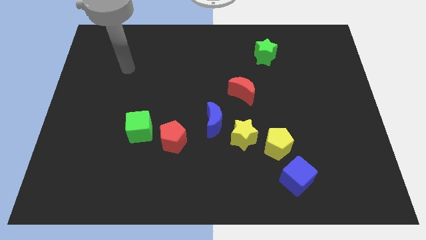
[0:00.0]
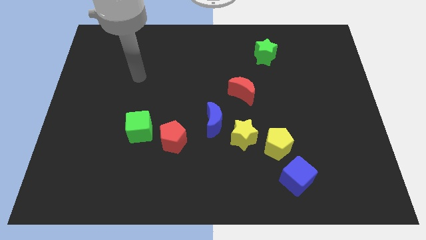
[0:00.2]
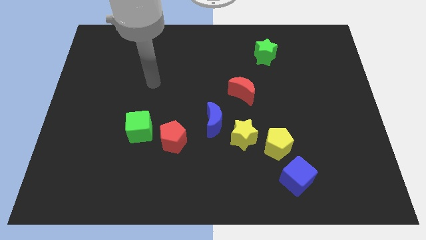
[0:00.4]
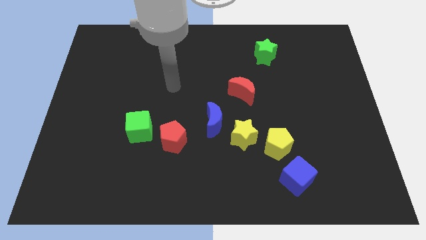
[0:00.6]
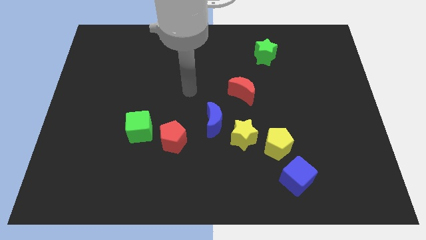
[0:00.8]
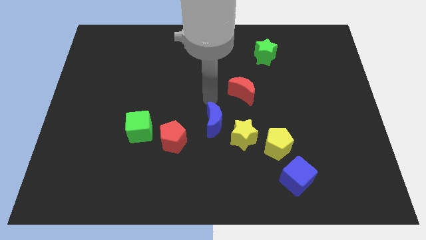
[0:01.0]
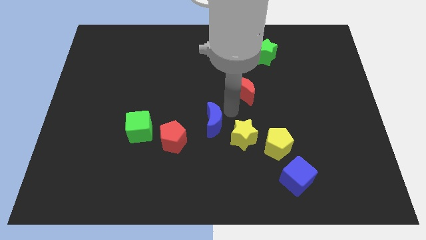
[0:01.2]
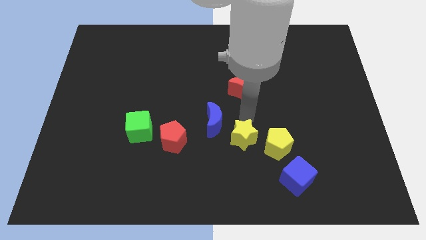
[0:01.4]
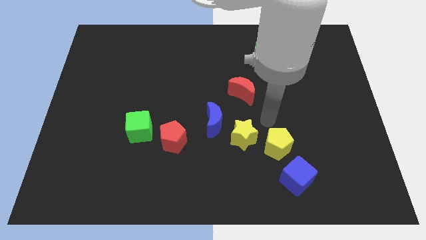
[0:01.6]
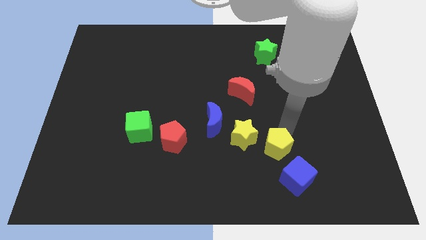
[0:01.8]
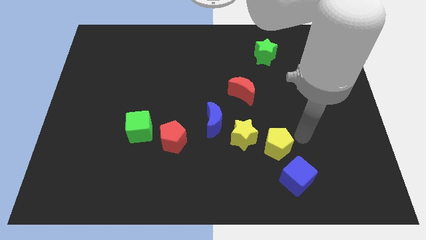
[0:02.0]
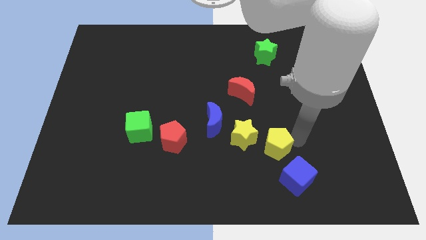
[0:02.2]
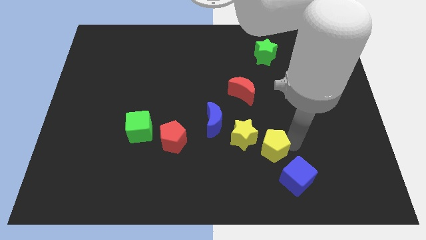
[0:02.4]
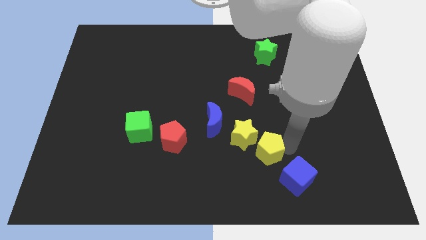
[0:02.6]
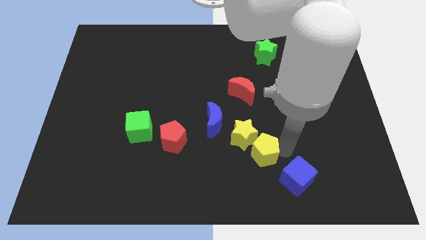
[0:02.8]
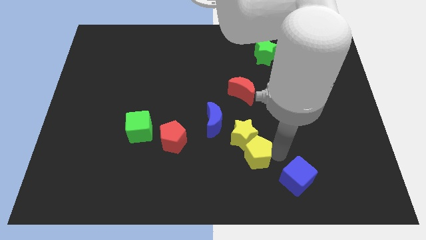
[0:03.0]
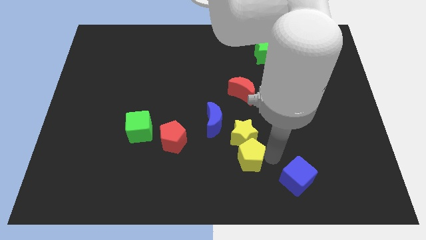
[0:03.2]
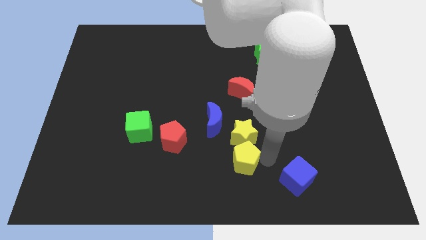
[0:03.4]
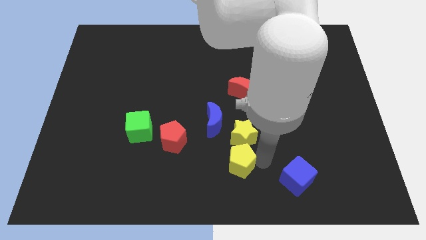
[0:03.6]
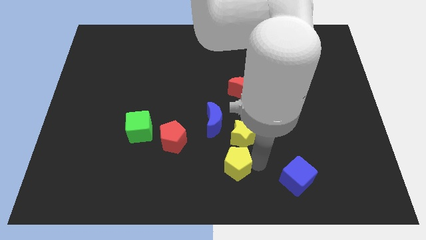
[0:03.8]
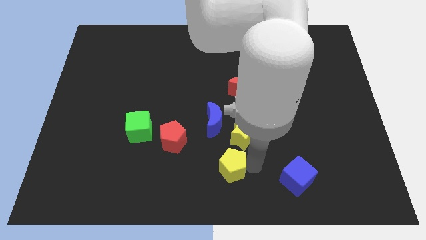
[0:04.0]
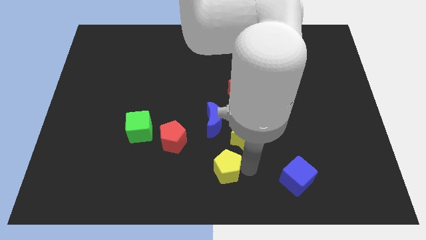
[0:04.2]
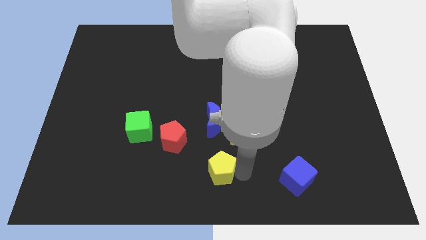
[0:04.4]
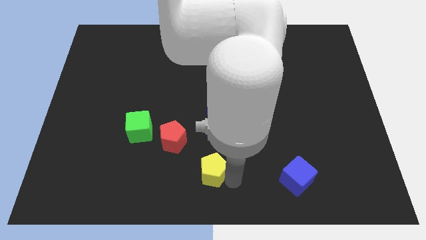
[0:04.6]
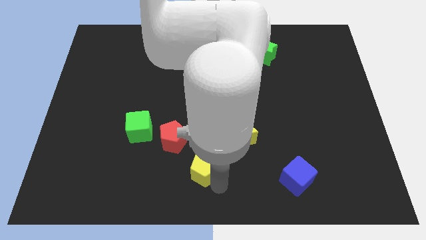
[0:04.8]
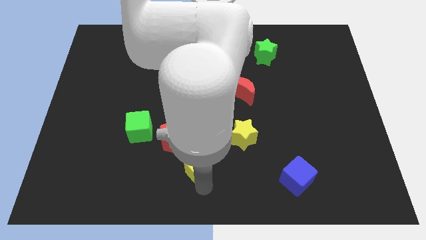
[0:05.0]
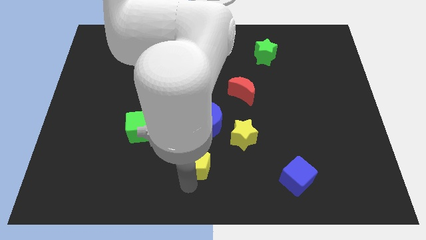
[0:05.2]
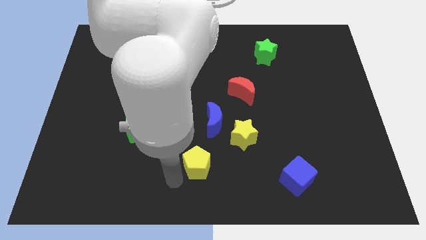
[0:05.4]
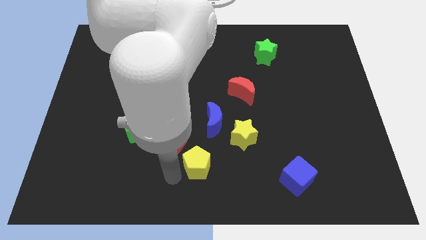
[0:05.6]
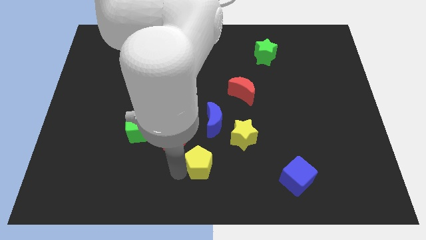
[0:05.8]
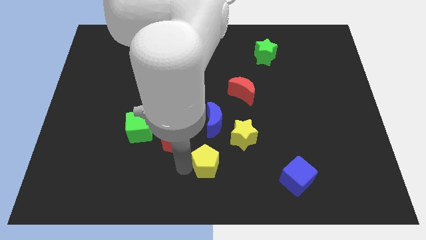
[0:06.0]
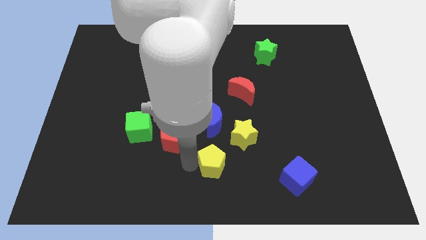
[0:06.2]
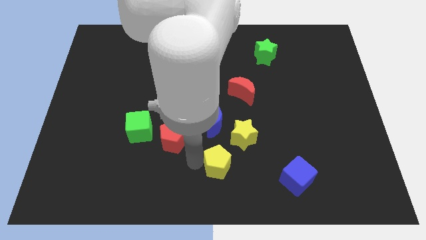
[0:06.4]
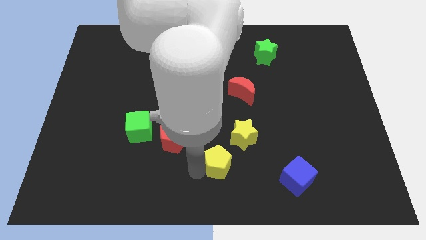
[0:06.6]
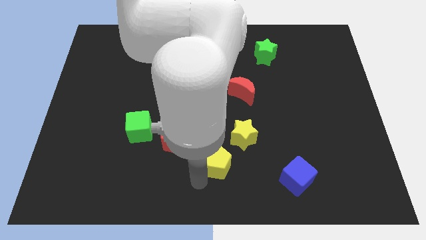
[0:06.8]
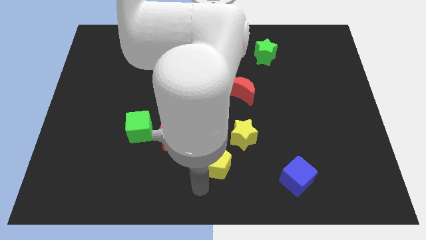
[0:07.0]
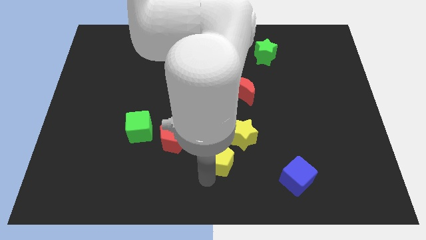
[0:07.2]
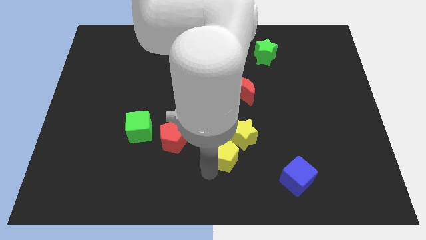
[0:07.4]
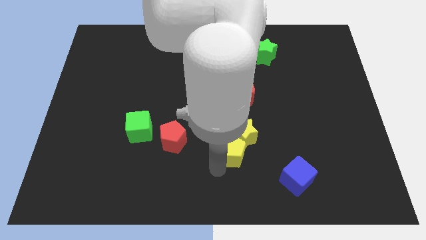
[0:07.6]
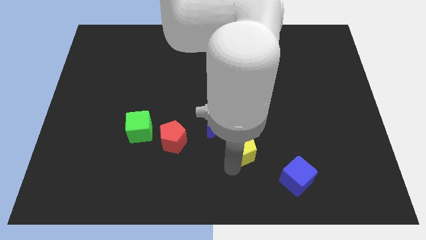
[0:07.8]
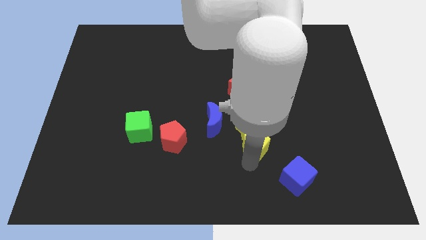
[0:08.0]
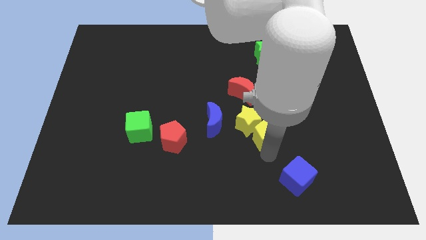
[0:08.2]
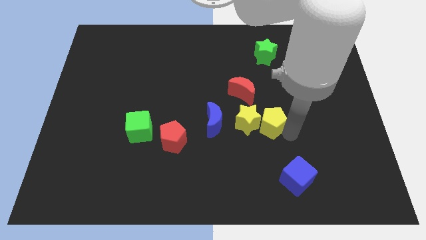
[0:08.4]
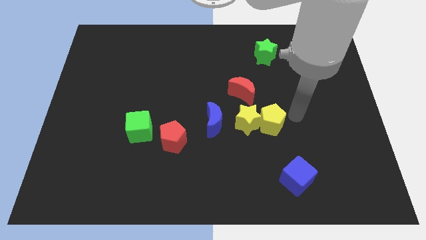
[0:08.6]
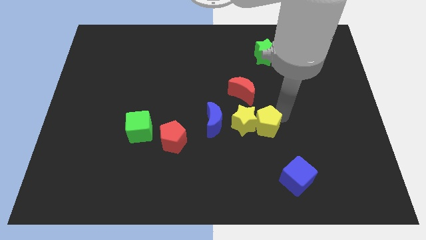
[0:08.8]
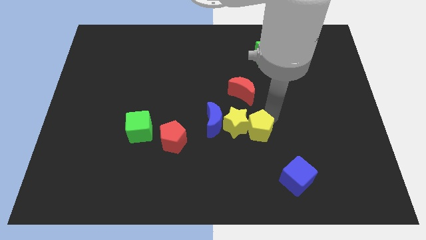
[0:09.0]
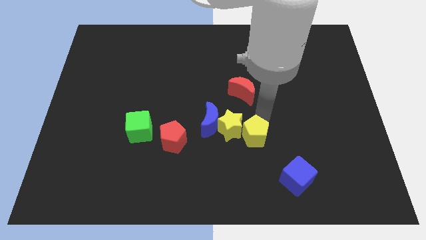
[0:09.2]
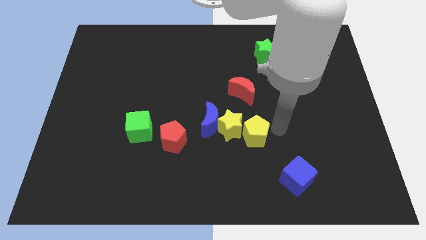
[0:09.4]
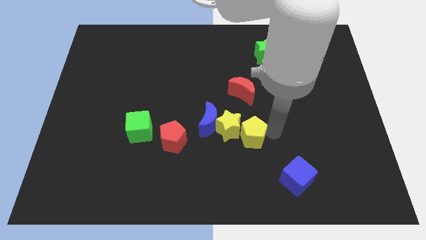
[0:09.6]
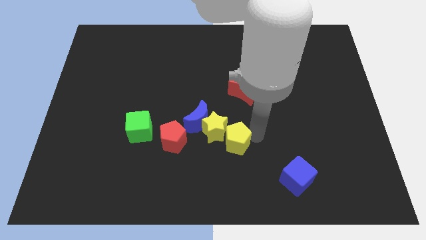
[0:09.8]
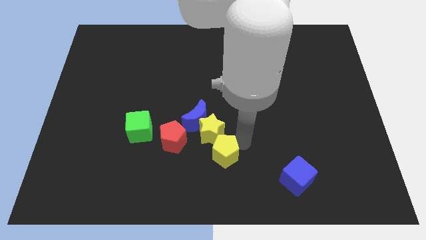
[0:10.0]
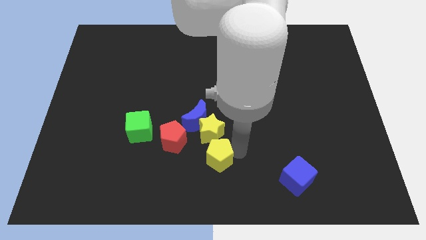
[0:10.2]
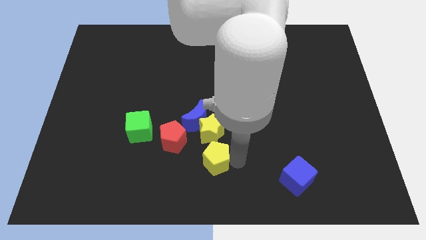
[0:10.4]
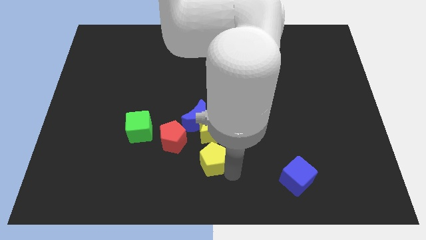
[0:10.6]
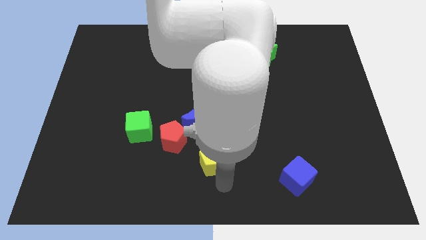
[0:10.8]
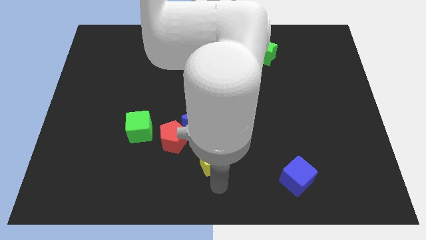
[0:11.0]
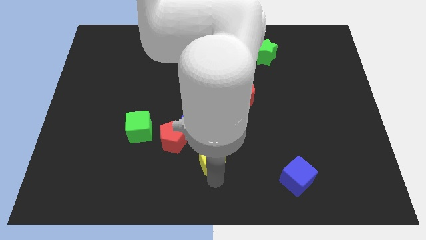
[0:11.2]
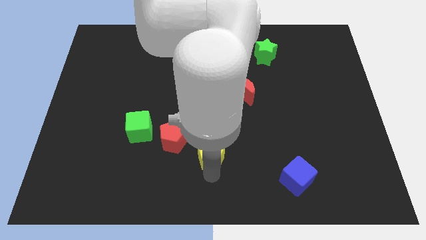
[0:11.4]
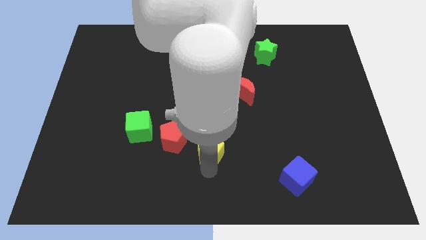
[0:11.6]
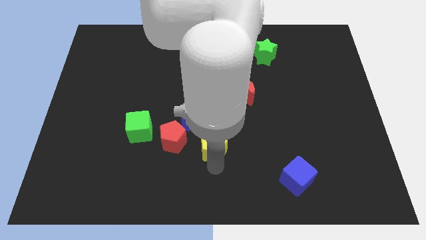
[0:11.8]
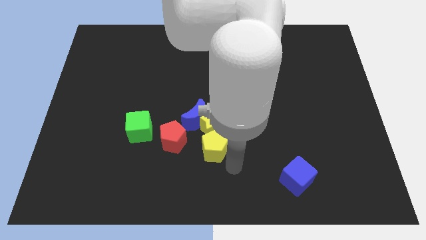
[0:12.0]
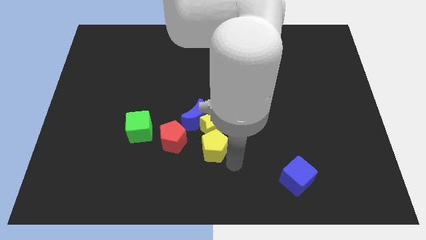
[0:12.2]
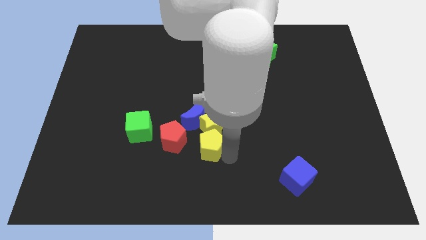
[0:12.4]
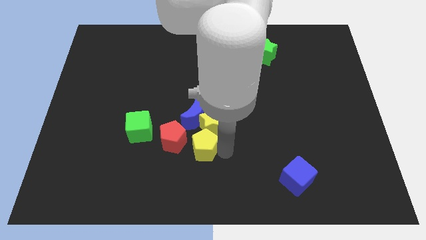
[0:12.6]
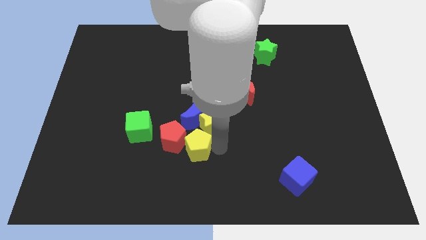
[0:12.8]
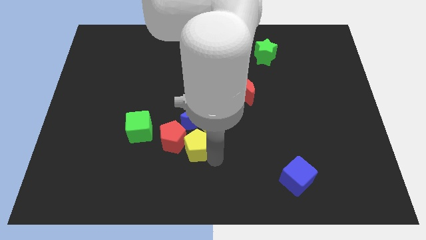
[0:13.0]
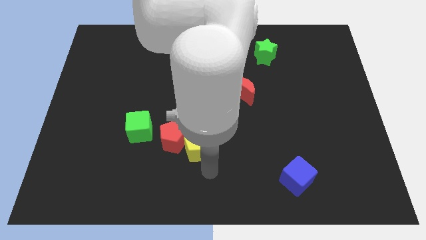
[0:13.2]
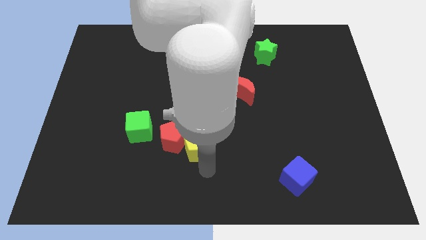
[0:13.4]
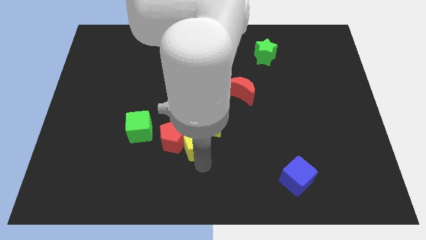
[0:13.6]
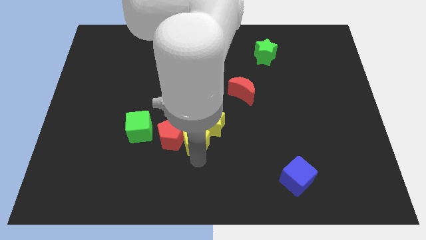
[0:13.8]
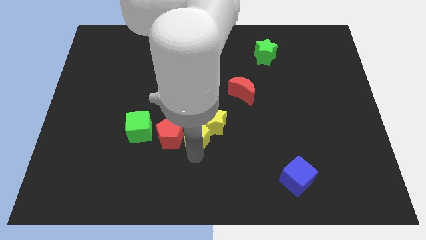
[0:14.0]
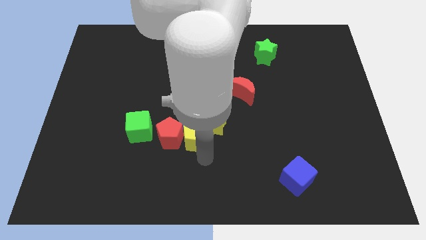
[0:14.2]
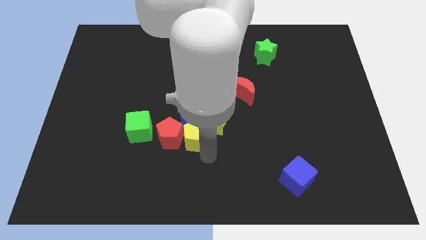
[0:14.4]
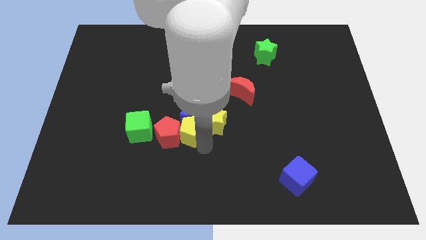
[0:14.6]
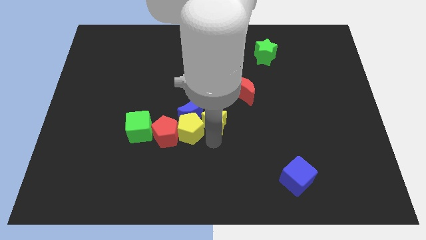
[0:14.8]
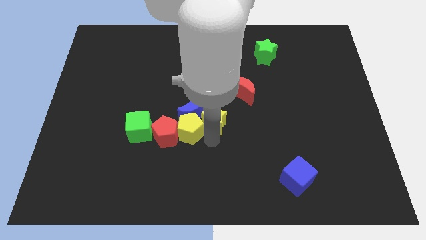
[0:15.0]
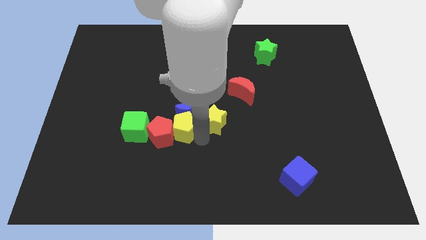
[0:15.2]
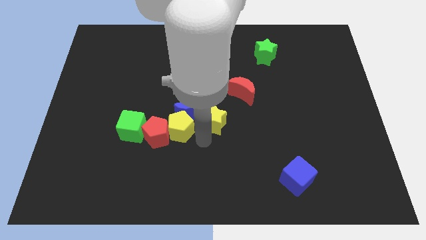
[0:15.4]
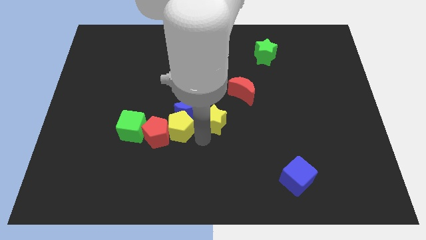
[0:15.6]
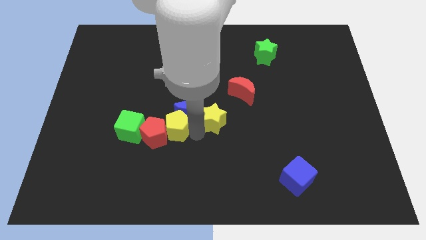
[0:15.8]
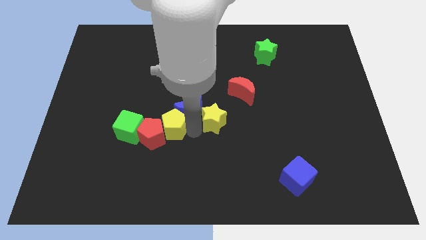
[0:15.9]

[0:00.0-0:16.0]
slide the yellow pentagon left of the blue moon
